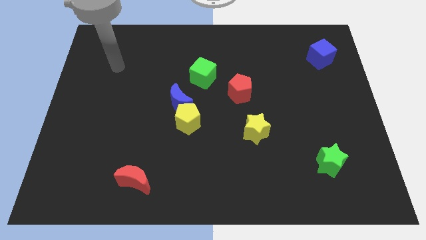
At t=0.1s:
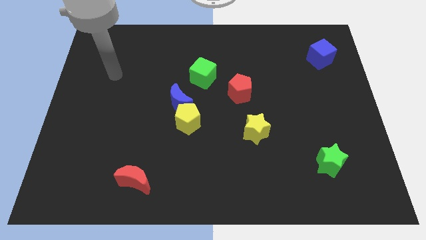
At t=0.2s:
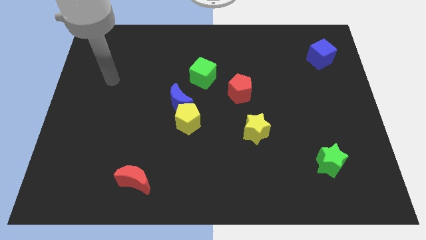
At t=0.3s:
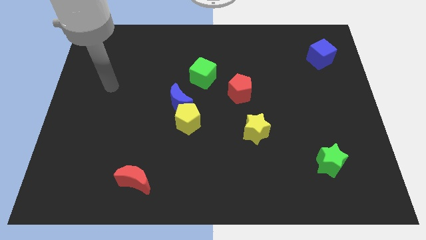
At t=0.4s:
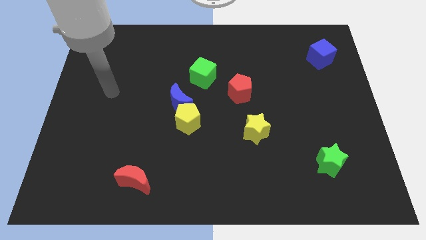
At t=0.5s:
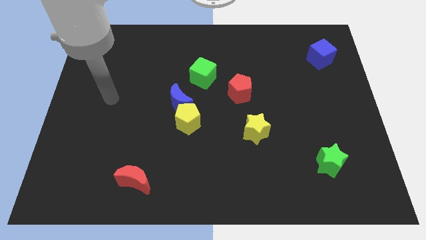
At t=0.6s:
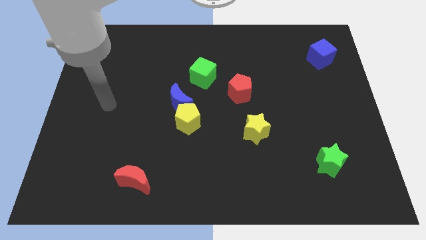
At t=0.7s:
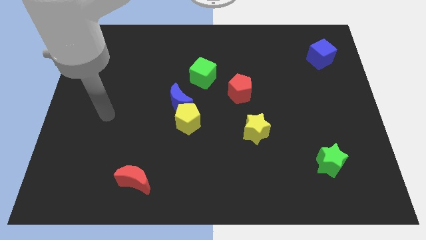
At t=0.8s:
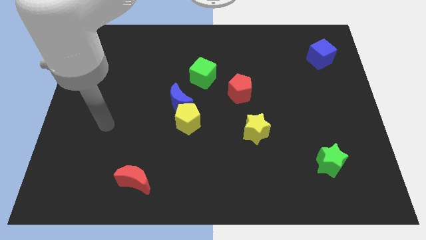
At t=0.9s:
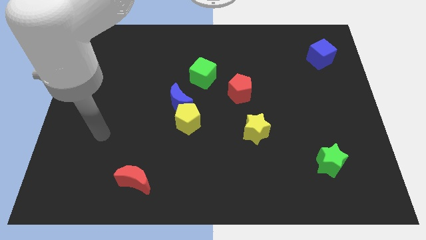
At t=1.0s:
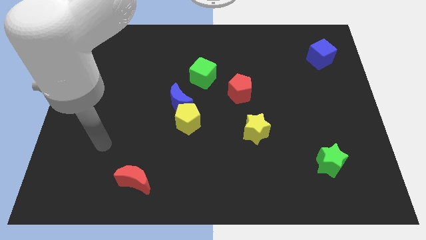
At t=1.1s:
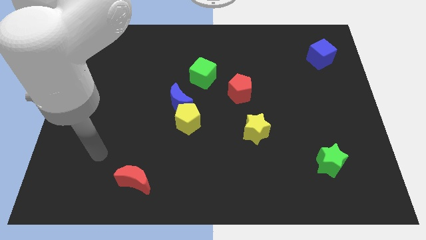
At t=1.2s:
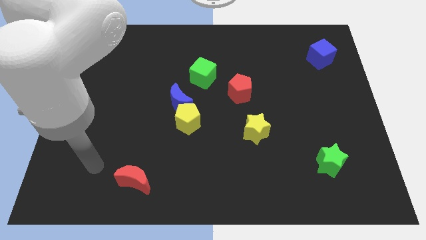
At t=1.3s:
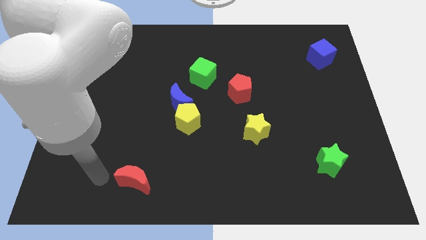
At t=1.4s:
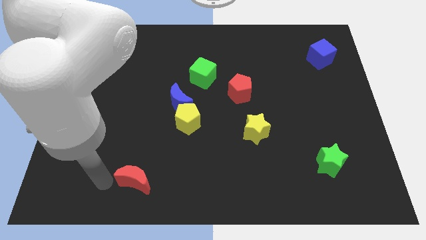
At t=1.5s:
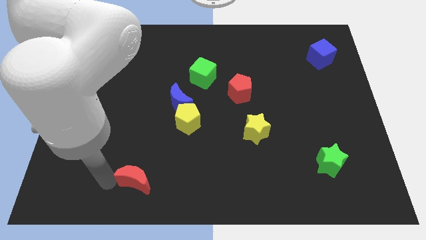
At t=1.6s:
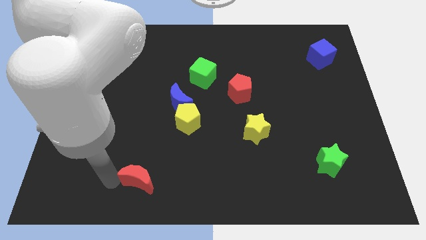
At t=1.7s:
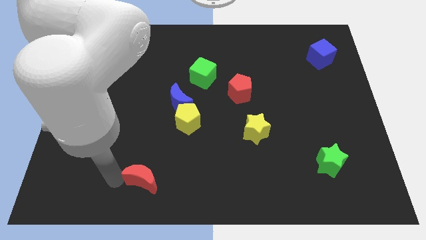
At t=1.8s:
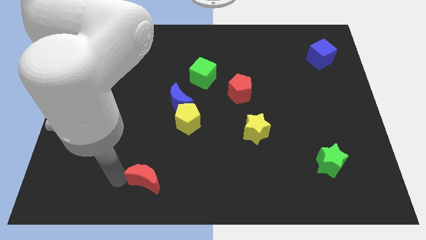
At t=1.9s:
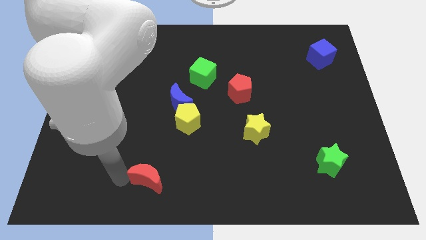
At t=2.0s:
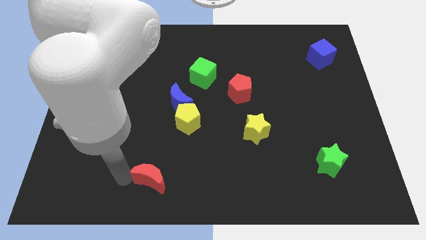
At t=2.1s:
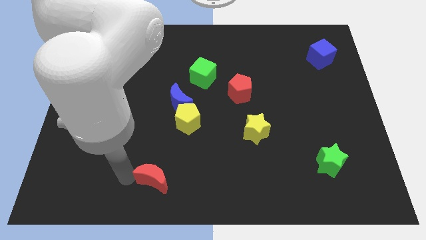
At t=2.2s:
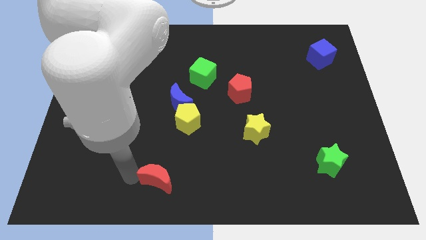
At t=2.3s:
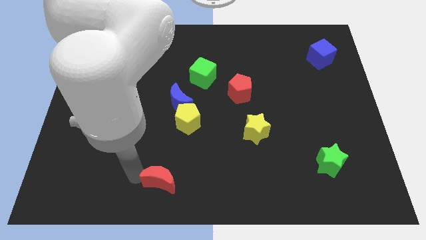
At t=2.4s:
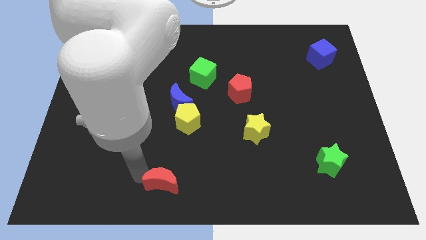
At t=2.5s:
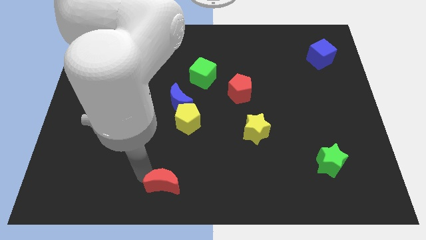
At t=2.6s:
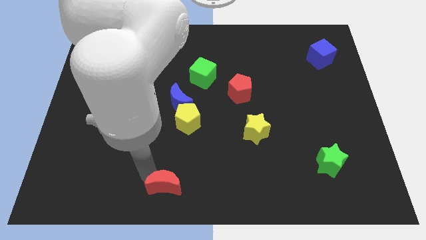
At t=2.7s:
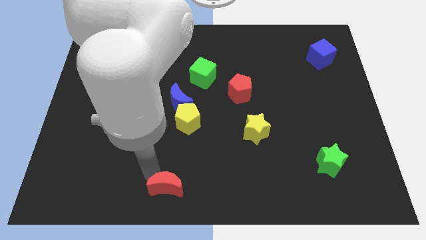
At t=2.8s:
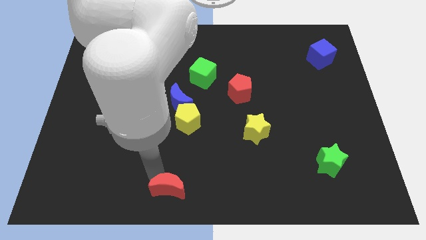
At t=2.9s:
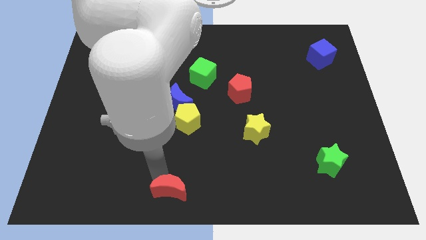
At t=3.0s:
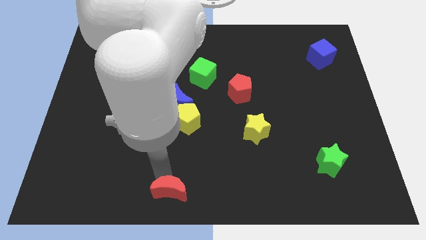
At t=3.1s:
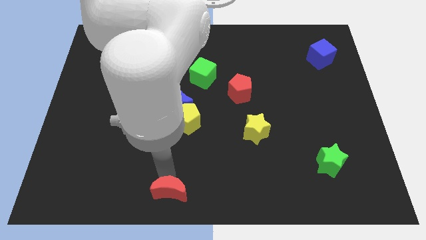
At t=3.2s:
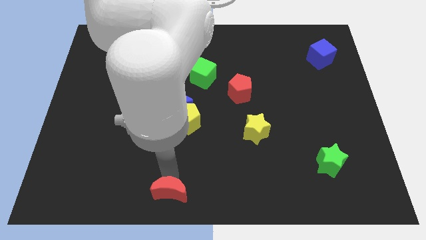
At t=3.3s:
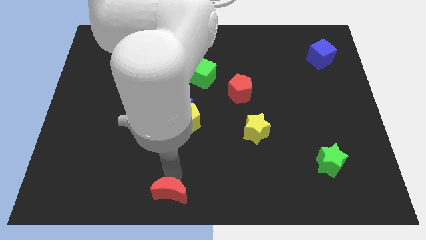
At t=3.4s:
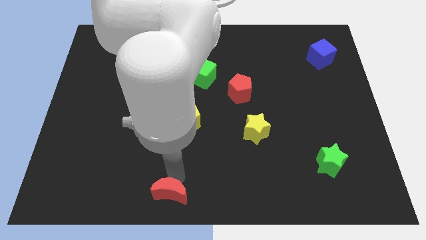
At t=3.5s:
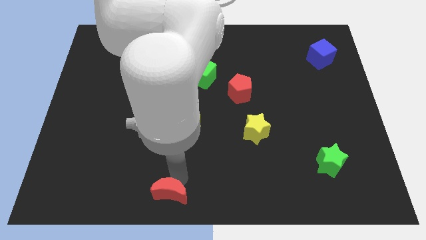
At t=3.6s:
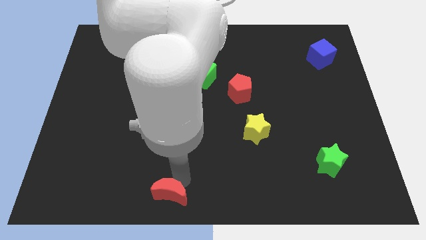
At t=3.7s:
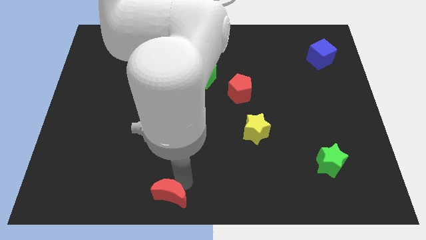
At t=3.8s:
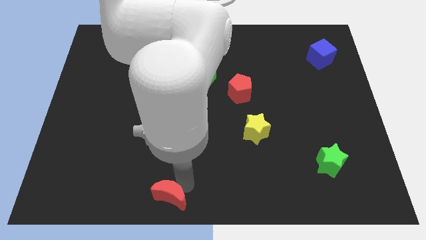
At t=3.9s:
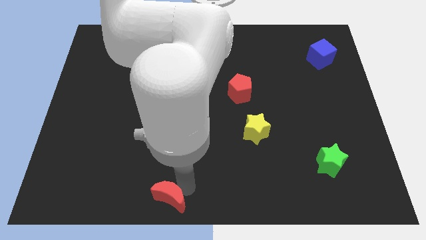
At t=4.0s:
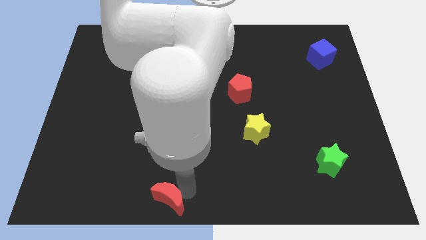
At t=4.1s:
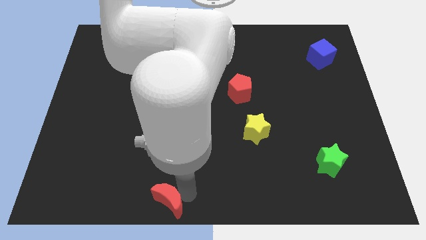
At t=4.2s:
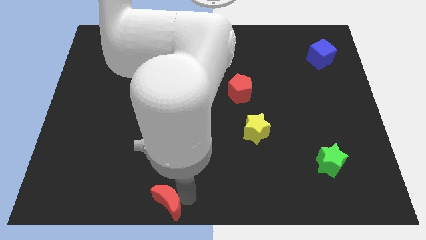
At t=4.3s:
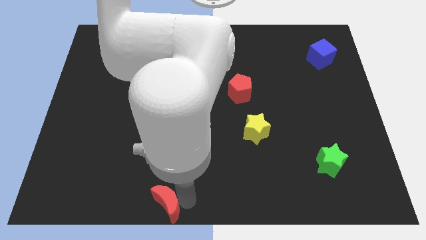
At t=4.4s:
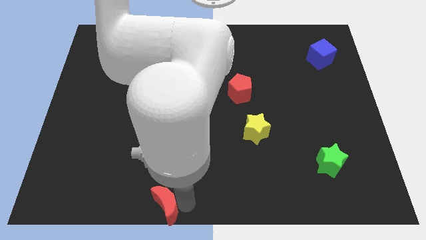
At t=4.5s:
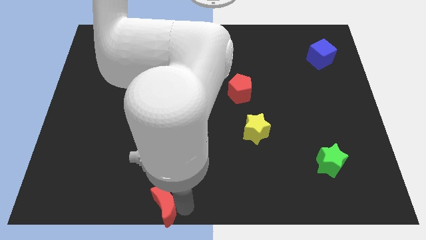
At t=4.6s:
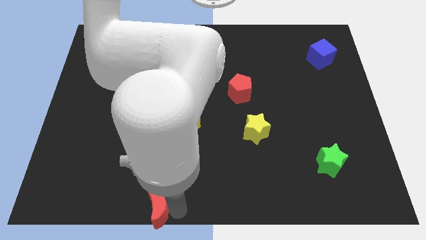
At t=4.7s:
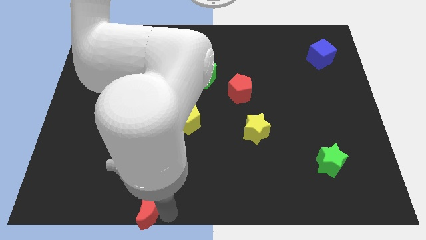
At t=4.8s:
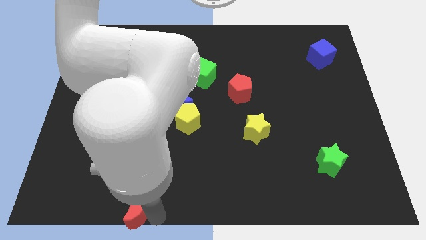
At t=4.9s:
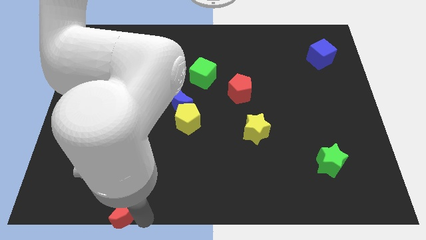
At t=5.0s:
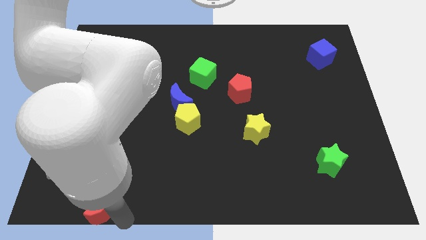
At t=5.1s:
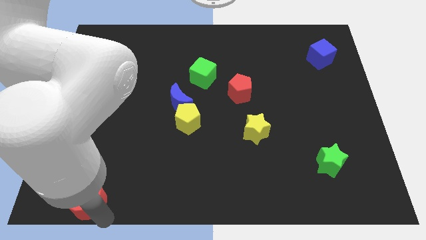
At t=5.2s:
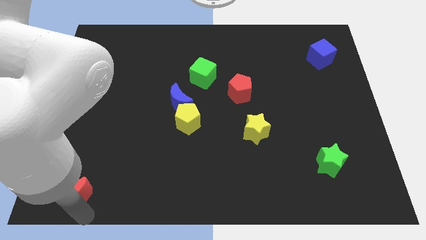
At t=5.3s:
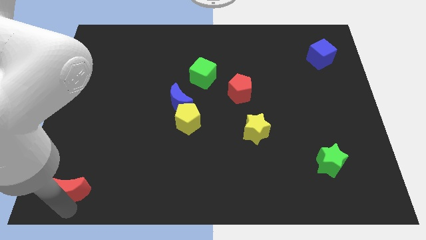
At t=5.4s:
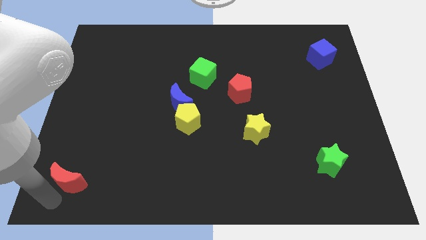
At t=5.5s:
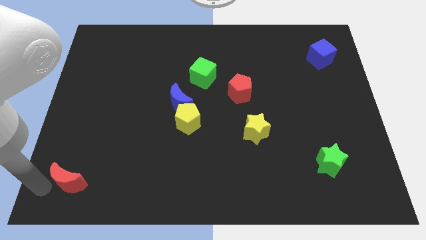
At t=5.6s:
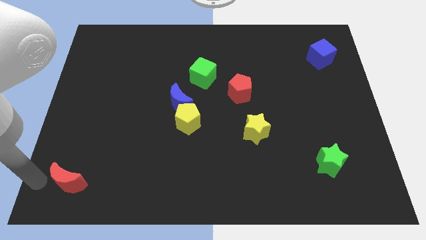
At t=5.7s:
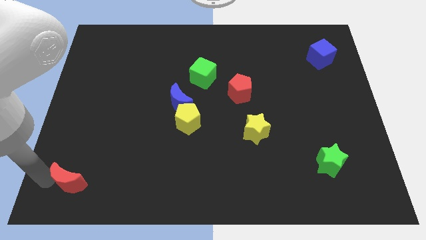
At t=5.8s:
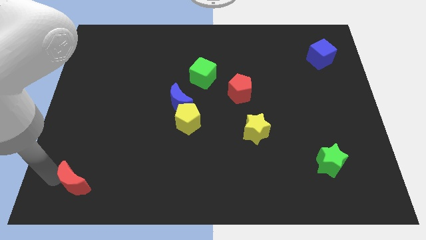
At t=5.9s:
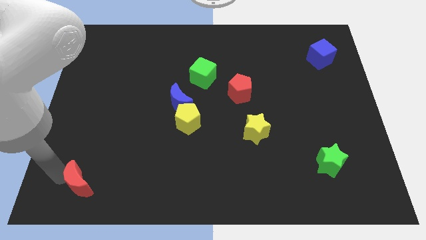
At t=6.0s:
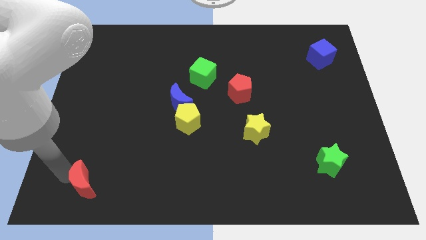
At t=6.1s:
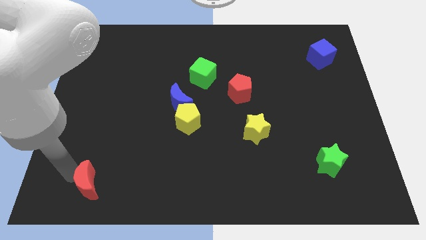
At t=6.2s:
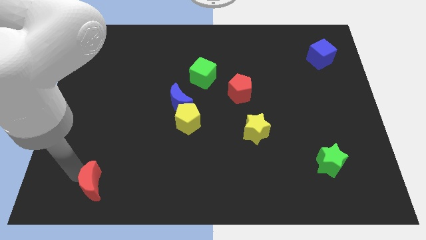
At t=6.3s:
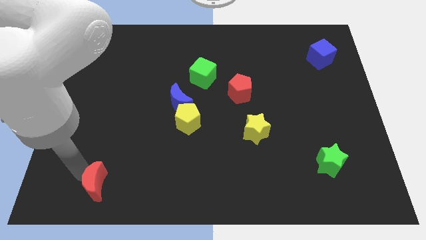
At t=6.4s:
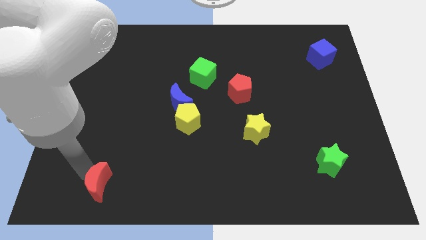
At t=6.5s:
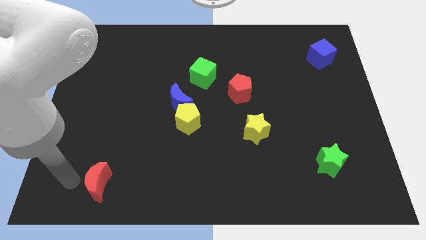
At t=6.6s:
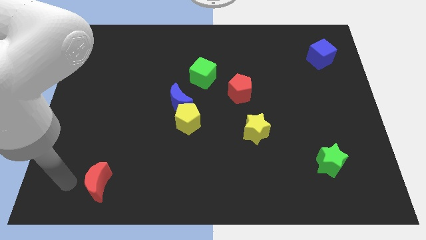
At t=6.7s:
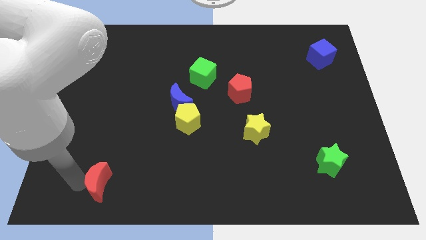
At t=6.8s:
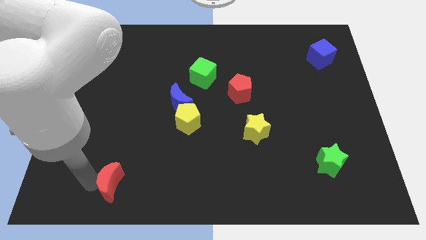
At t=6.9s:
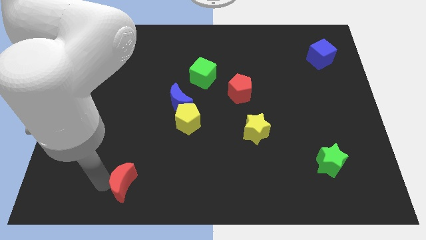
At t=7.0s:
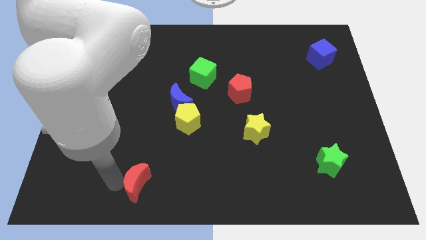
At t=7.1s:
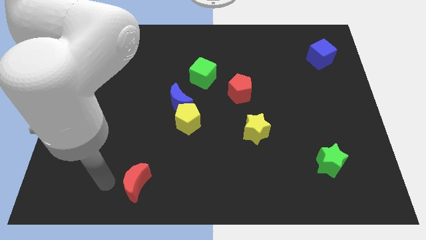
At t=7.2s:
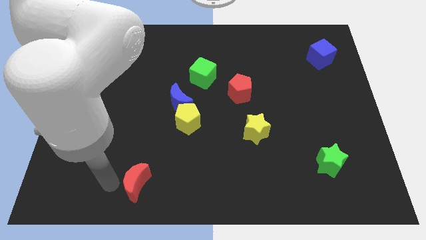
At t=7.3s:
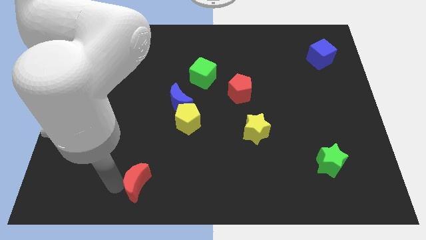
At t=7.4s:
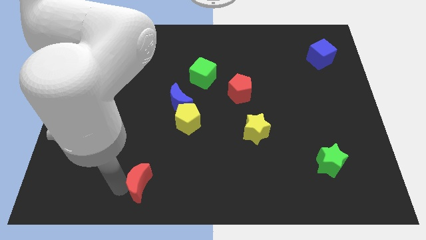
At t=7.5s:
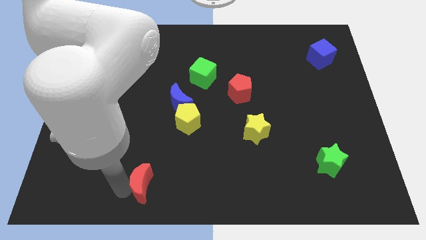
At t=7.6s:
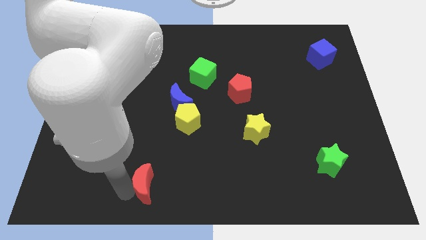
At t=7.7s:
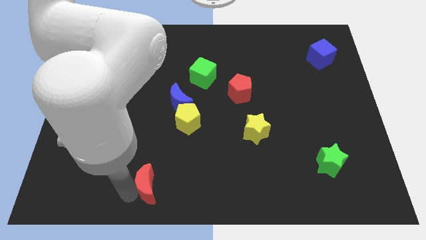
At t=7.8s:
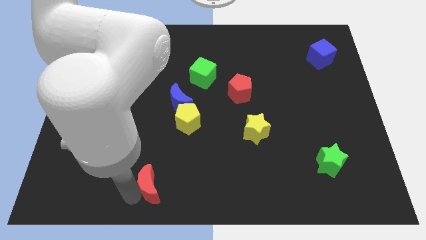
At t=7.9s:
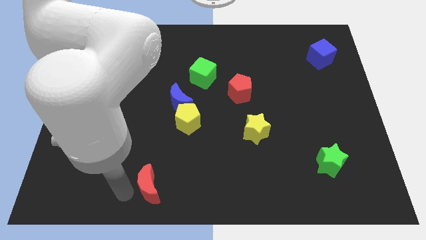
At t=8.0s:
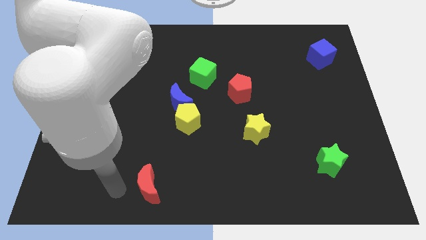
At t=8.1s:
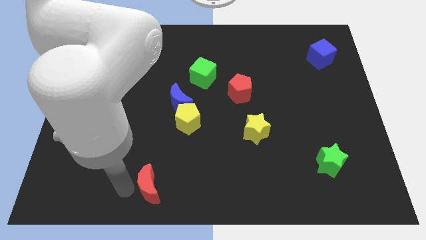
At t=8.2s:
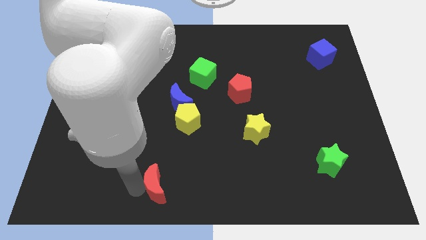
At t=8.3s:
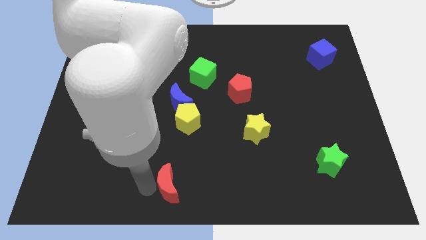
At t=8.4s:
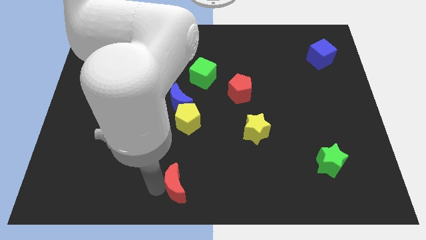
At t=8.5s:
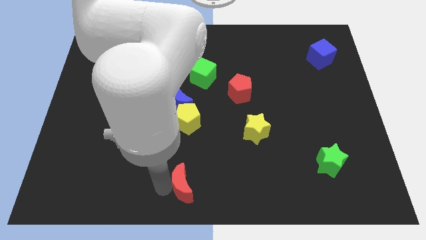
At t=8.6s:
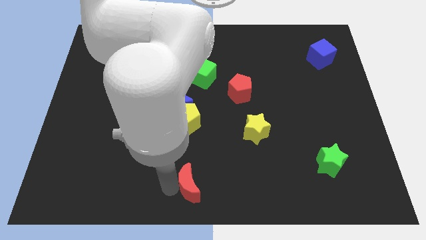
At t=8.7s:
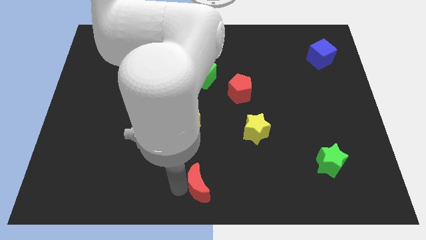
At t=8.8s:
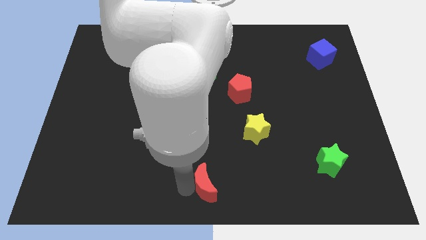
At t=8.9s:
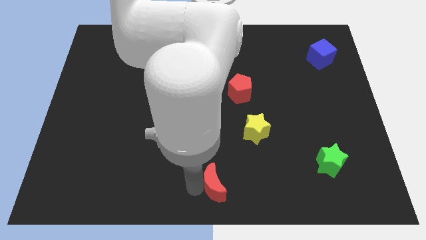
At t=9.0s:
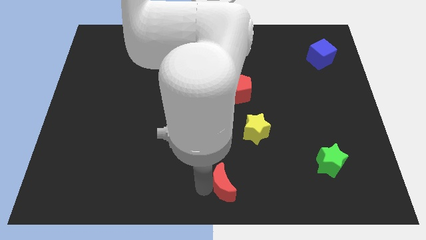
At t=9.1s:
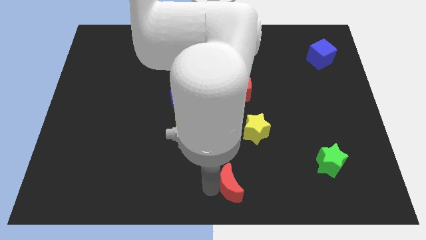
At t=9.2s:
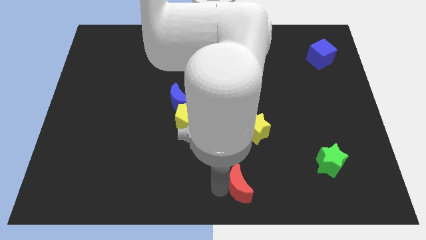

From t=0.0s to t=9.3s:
slide the red moon right
